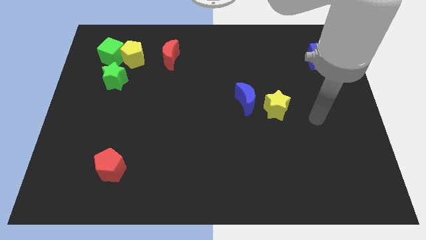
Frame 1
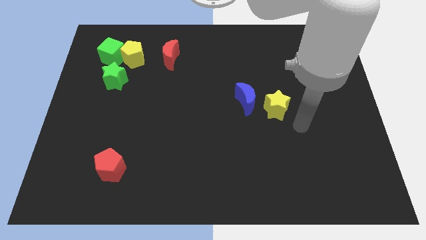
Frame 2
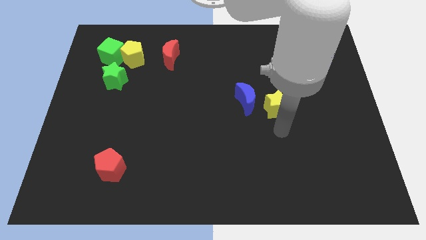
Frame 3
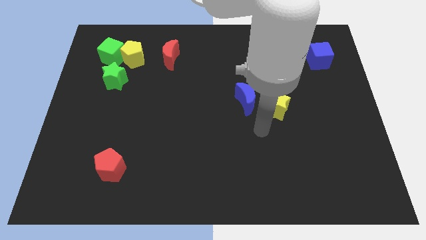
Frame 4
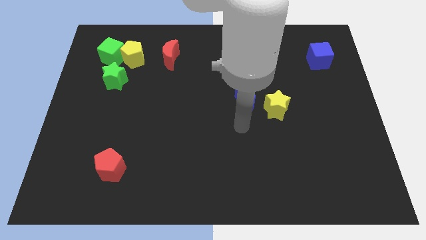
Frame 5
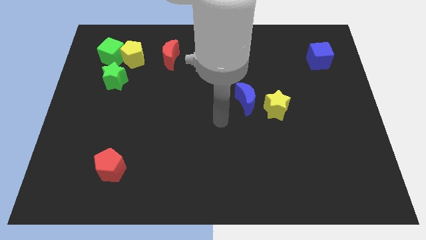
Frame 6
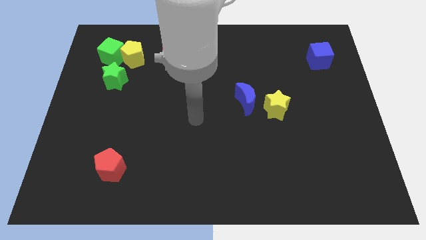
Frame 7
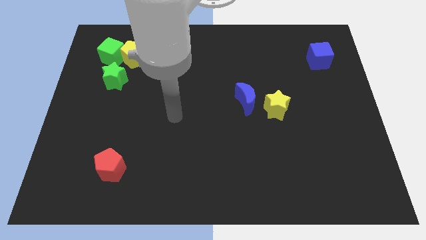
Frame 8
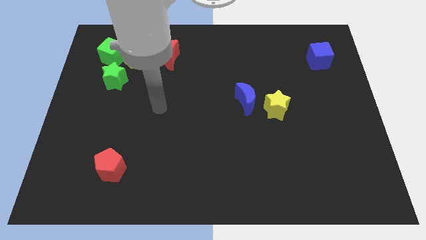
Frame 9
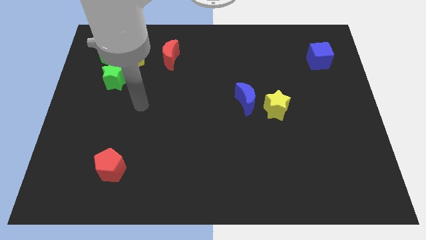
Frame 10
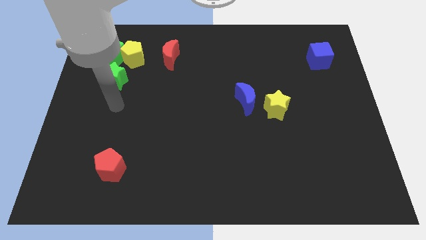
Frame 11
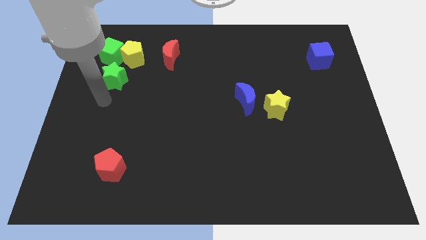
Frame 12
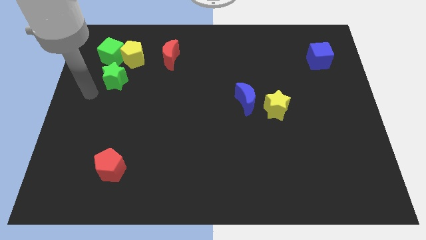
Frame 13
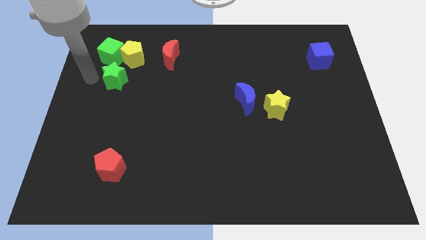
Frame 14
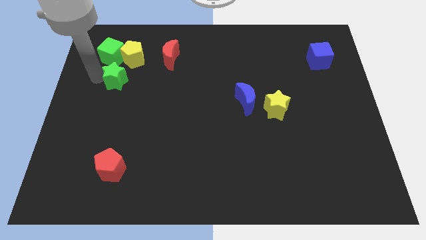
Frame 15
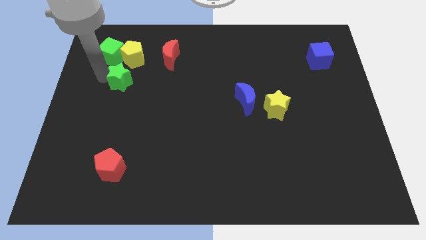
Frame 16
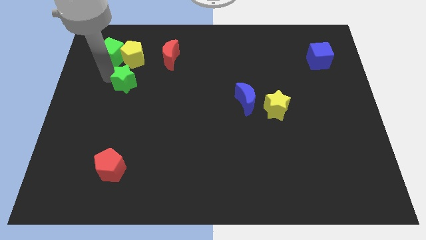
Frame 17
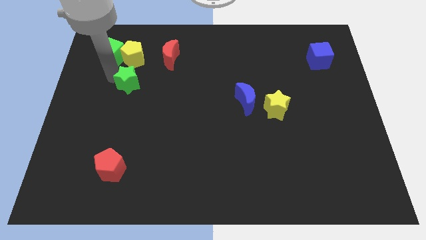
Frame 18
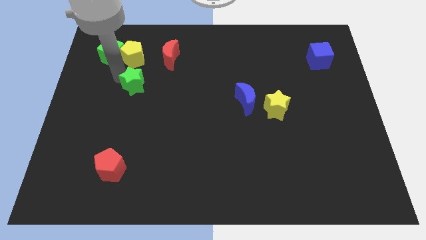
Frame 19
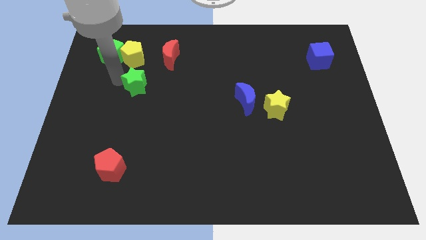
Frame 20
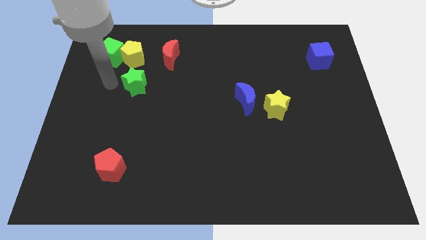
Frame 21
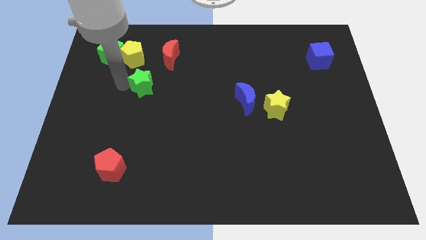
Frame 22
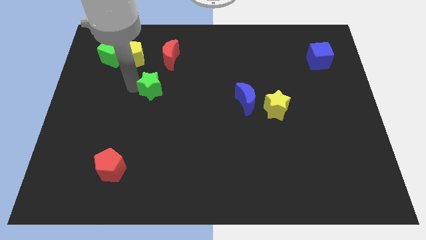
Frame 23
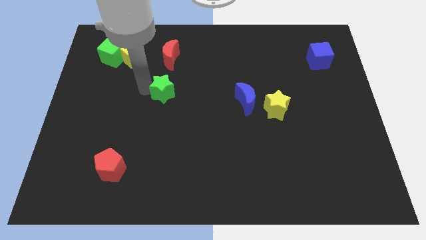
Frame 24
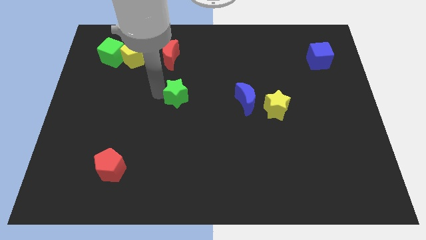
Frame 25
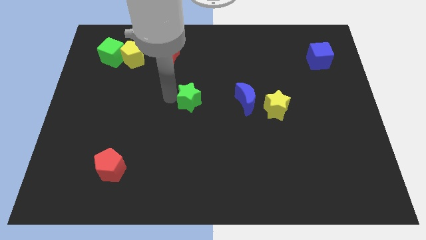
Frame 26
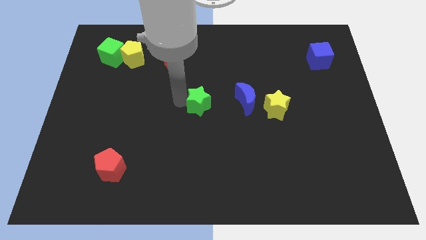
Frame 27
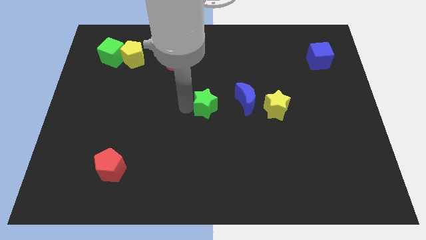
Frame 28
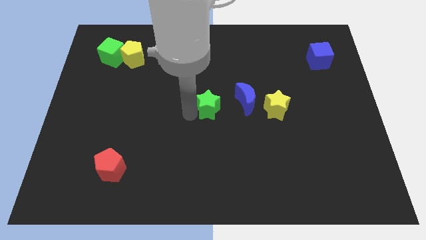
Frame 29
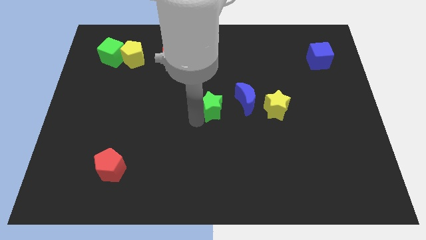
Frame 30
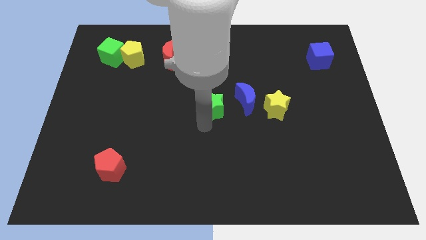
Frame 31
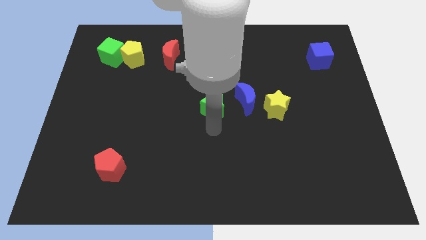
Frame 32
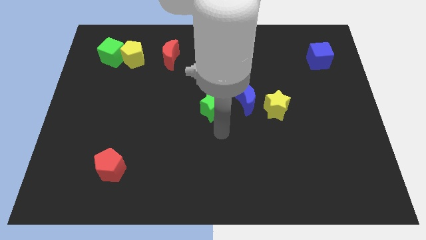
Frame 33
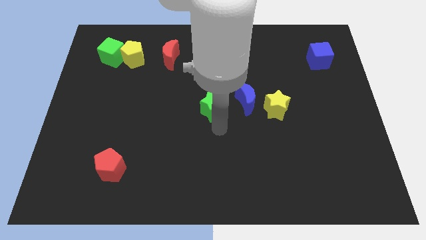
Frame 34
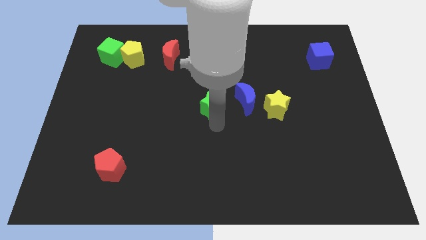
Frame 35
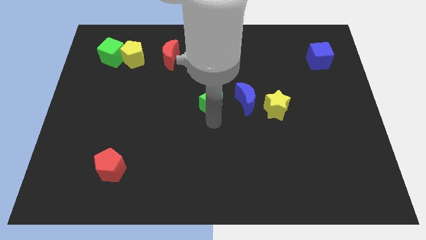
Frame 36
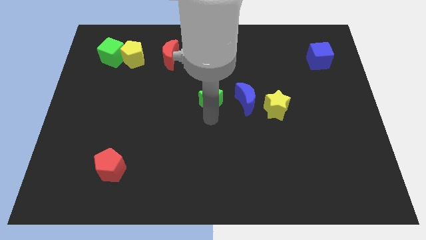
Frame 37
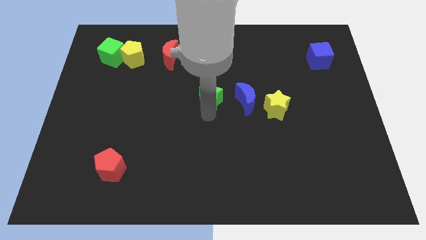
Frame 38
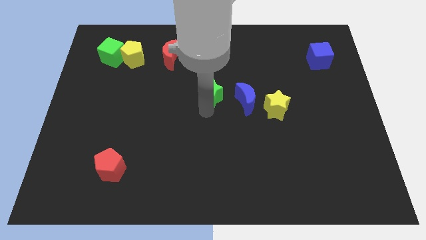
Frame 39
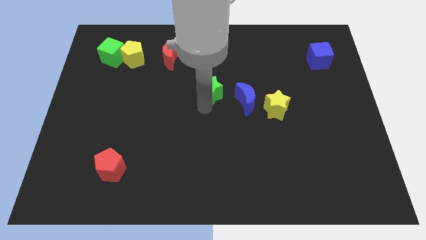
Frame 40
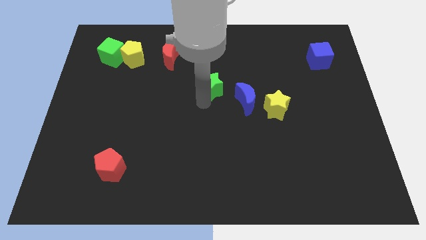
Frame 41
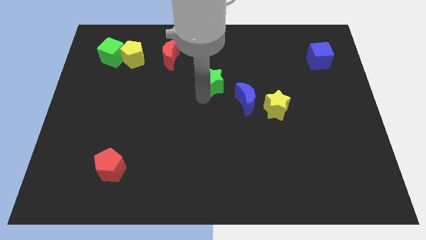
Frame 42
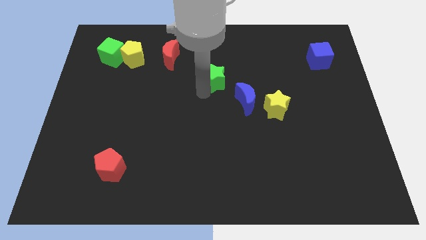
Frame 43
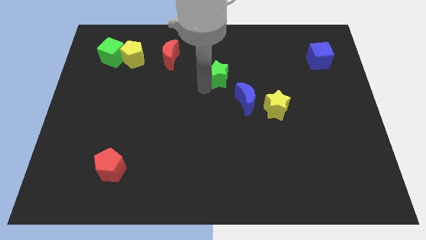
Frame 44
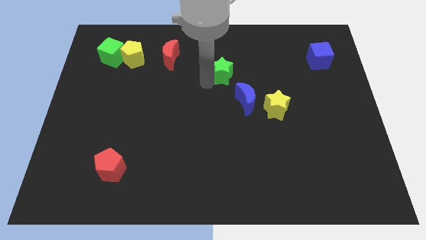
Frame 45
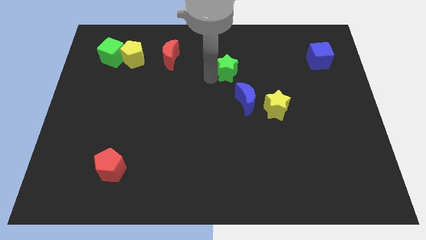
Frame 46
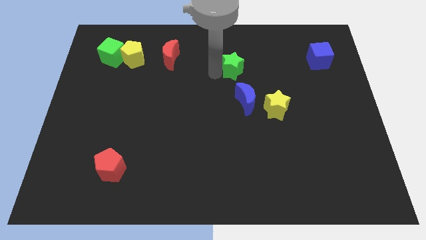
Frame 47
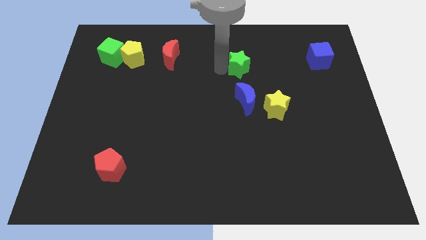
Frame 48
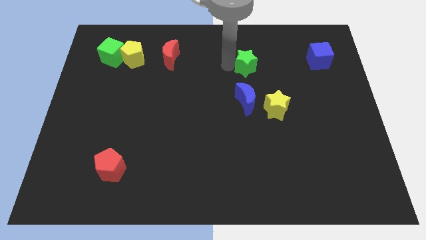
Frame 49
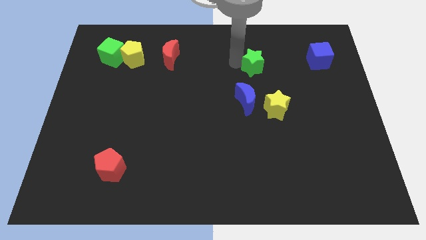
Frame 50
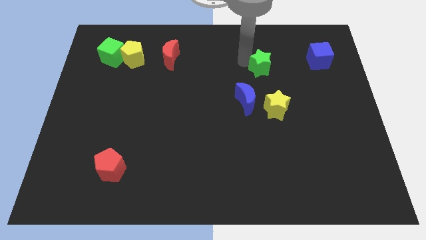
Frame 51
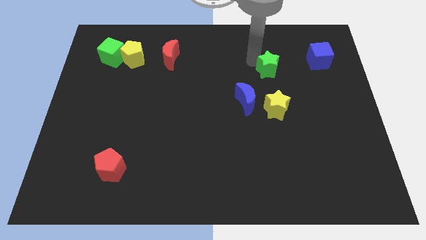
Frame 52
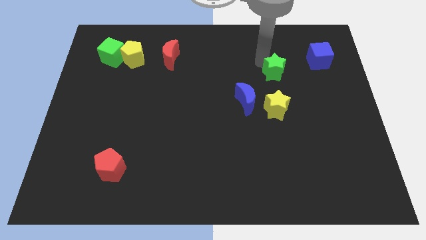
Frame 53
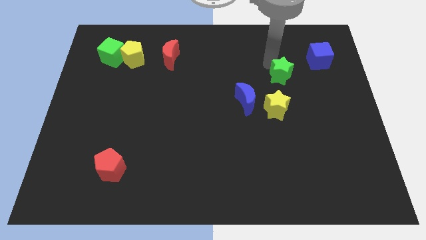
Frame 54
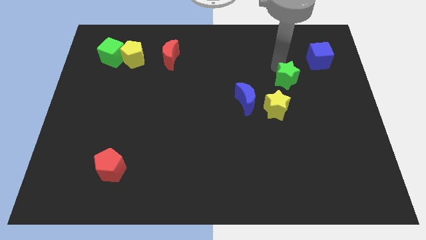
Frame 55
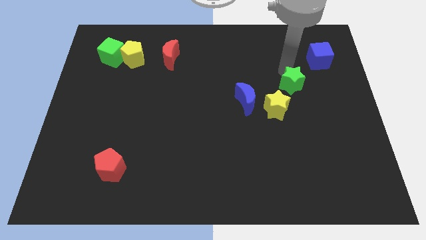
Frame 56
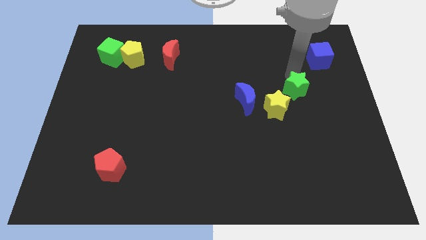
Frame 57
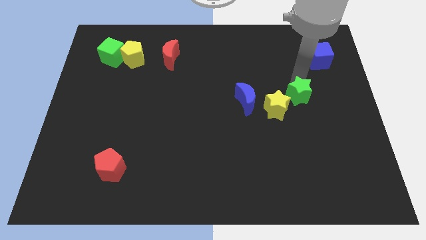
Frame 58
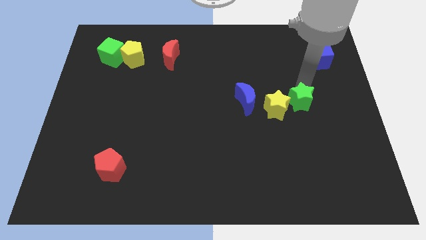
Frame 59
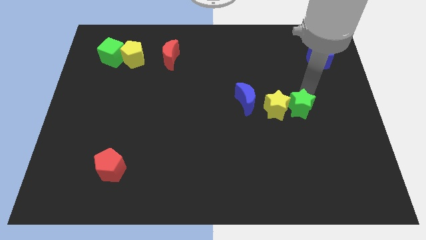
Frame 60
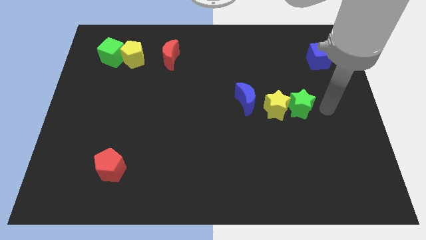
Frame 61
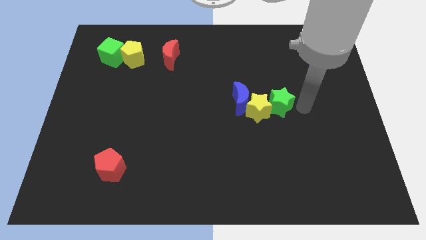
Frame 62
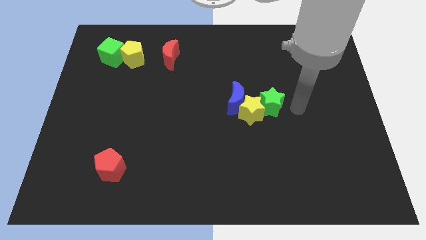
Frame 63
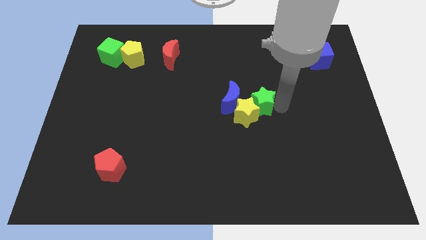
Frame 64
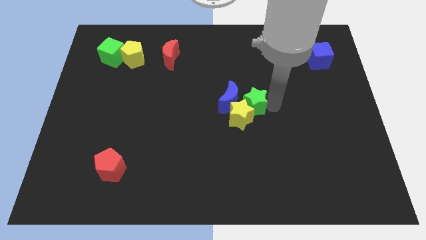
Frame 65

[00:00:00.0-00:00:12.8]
slide the green star to the blue moon
